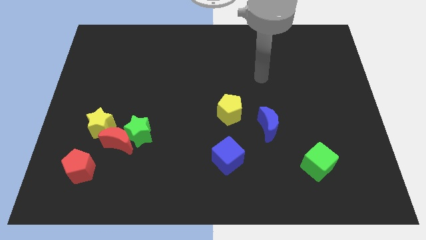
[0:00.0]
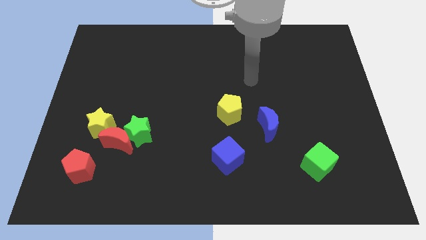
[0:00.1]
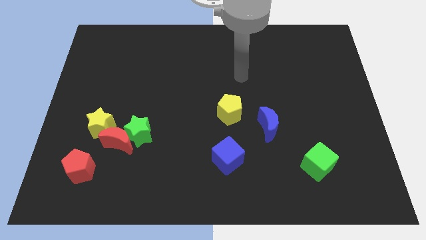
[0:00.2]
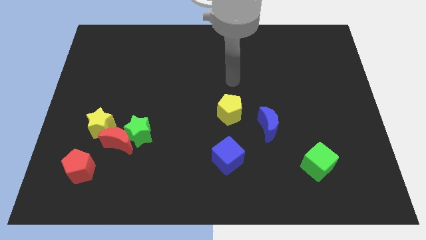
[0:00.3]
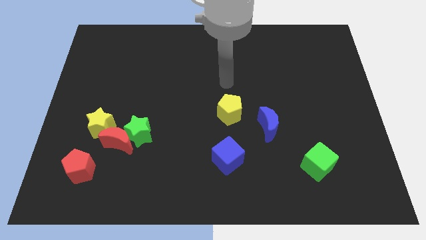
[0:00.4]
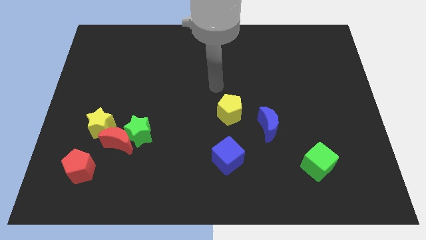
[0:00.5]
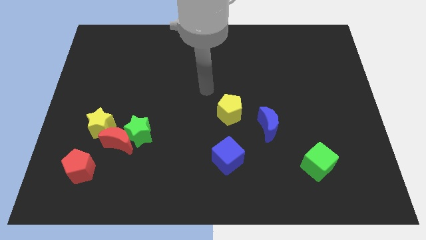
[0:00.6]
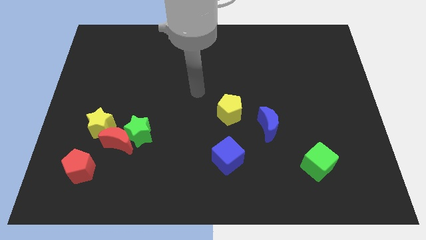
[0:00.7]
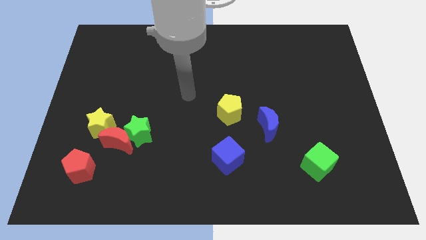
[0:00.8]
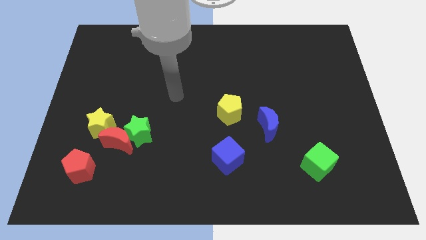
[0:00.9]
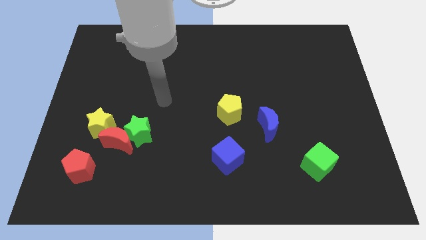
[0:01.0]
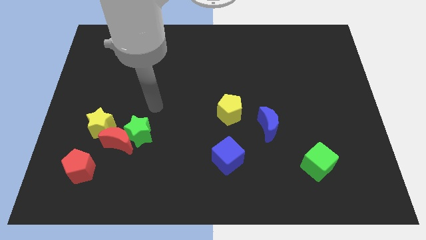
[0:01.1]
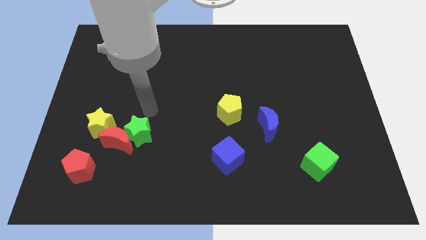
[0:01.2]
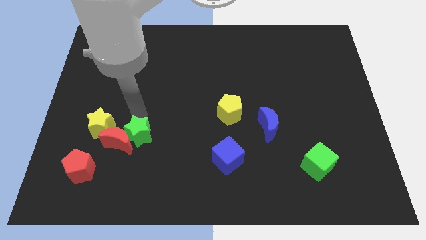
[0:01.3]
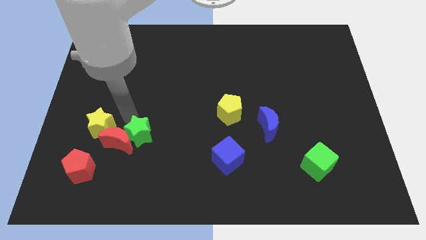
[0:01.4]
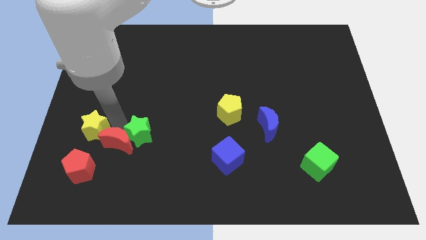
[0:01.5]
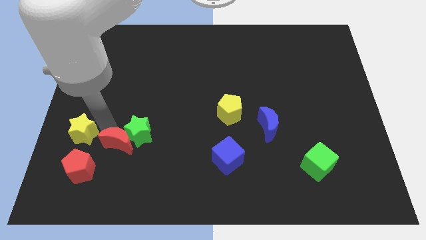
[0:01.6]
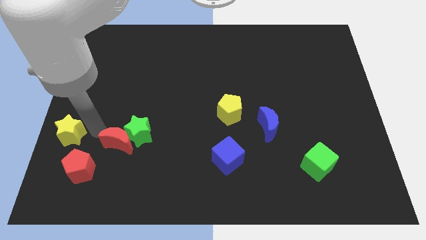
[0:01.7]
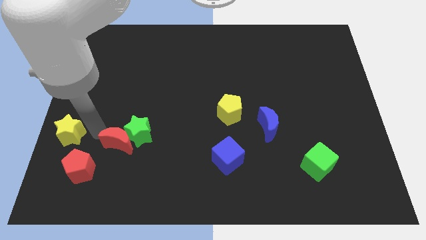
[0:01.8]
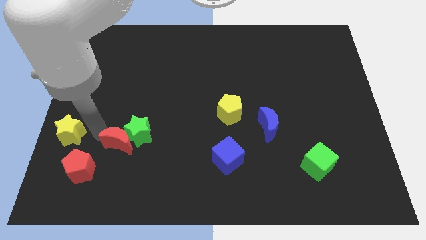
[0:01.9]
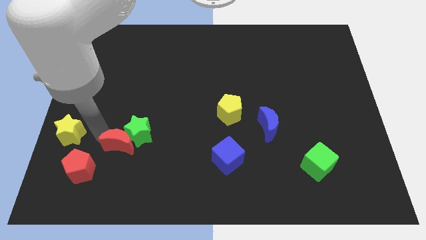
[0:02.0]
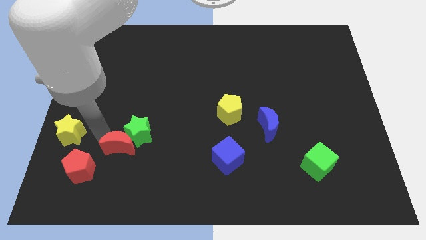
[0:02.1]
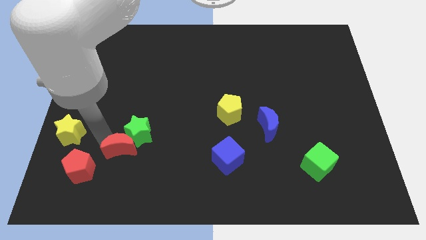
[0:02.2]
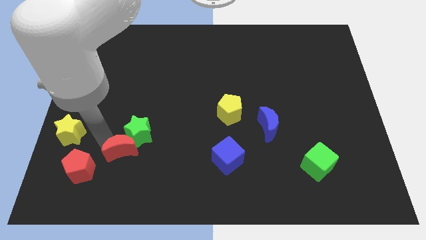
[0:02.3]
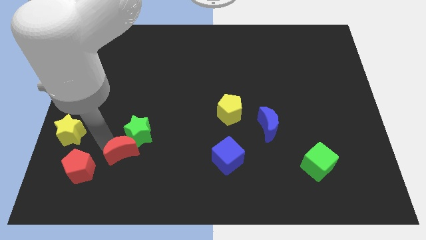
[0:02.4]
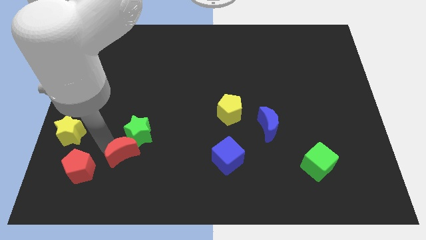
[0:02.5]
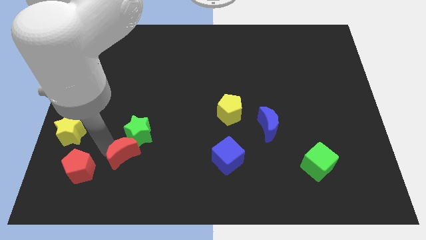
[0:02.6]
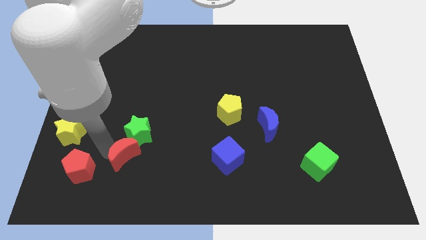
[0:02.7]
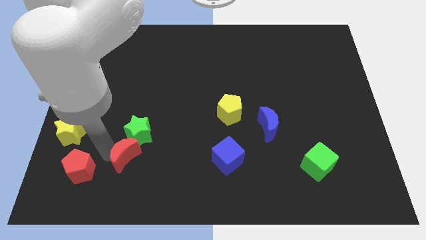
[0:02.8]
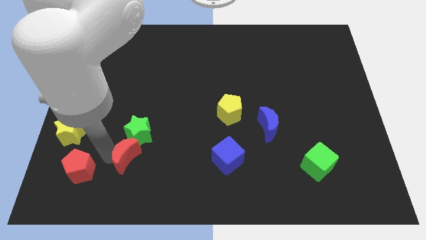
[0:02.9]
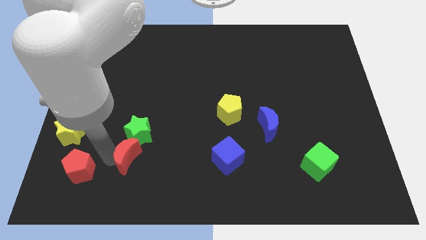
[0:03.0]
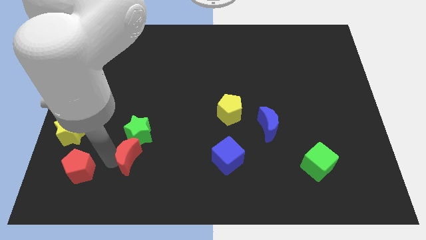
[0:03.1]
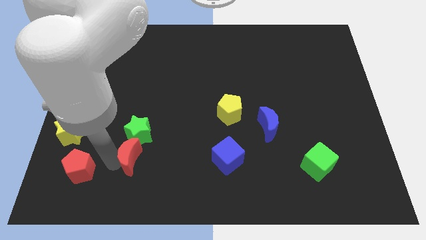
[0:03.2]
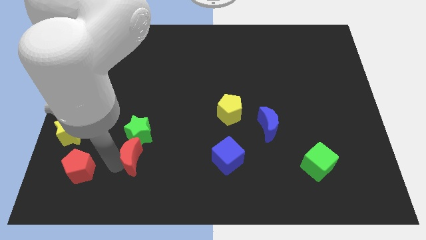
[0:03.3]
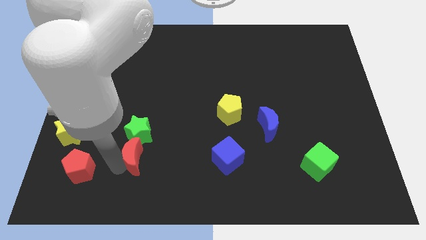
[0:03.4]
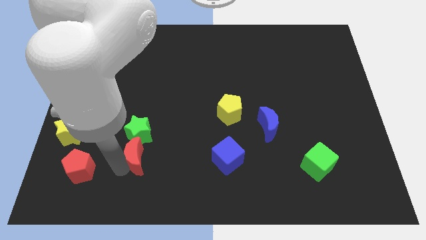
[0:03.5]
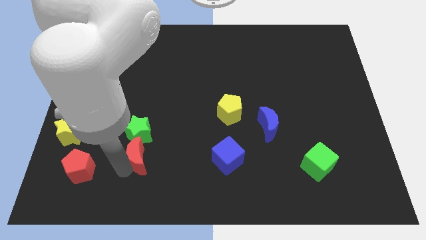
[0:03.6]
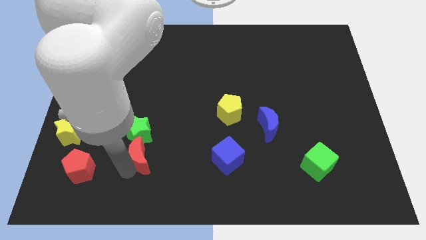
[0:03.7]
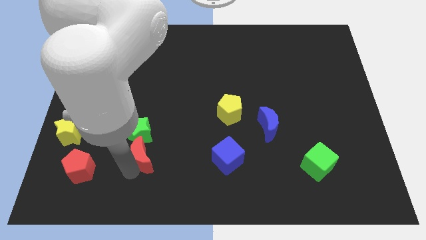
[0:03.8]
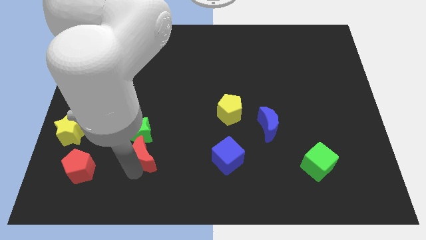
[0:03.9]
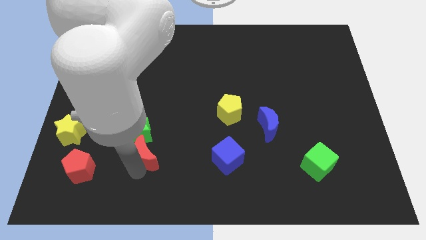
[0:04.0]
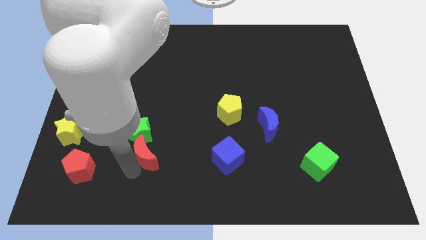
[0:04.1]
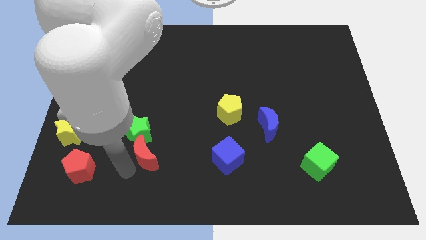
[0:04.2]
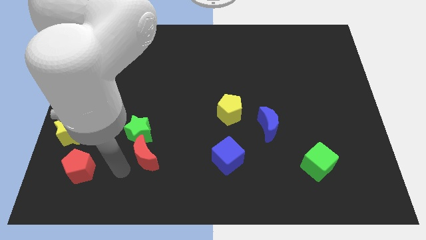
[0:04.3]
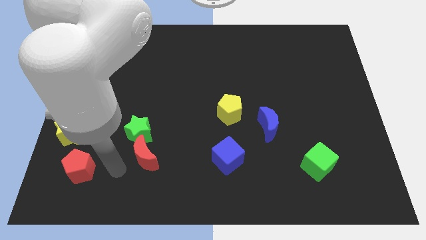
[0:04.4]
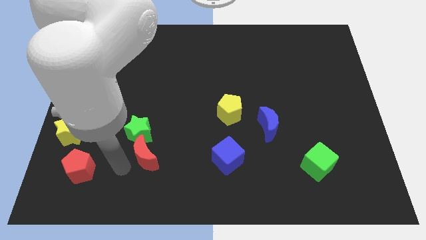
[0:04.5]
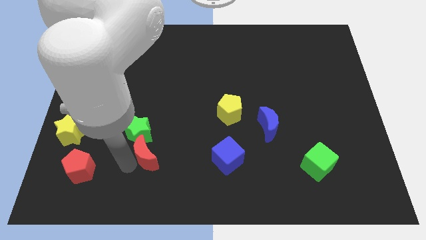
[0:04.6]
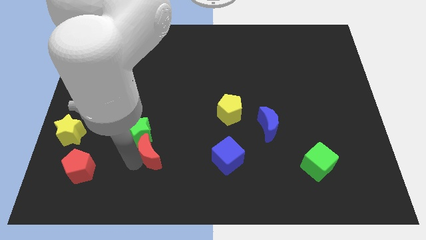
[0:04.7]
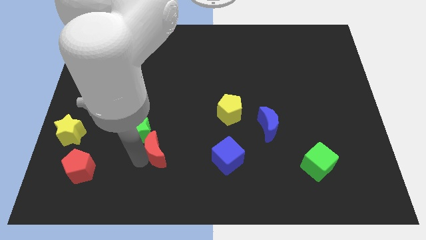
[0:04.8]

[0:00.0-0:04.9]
push the red moon slightly right

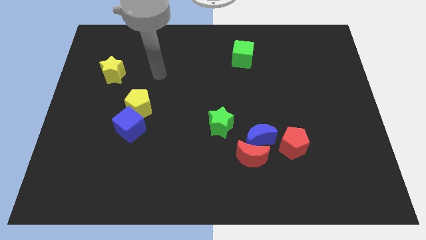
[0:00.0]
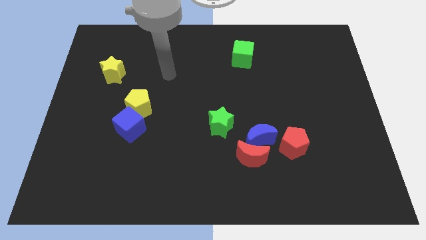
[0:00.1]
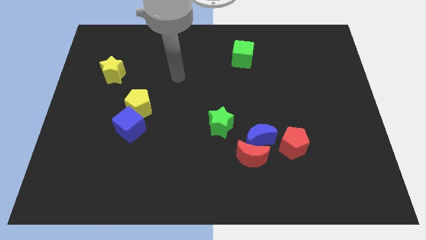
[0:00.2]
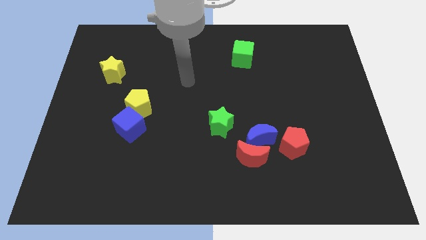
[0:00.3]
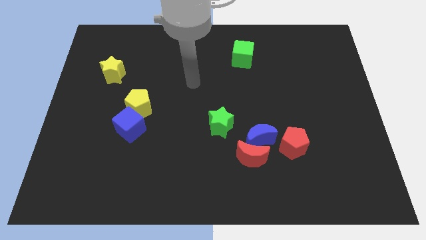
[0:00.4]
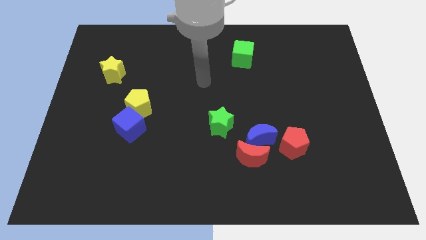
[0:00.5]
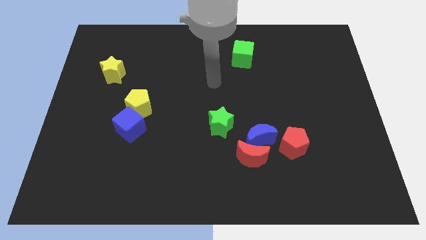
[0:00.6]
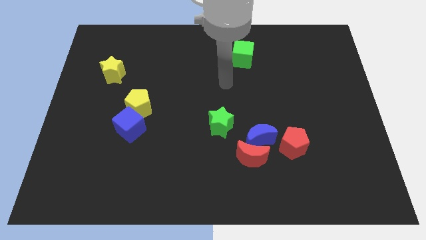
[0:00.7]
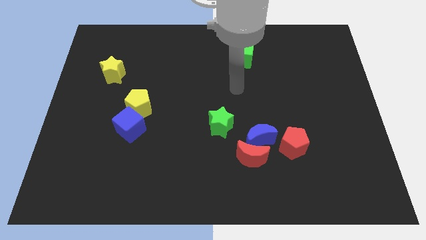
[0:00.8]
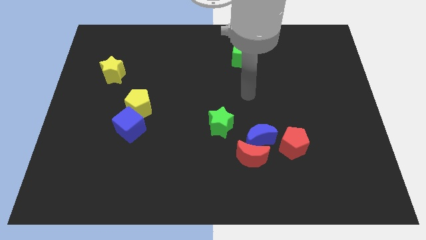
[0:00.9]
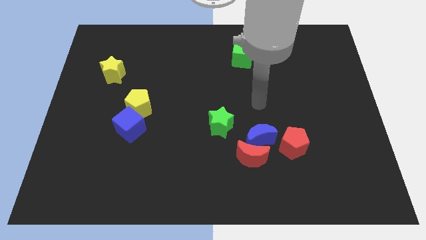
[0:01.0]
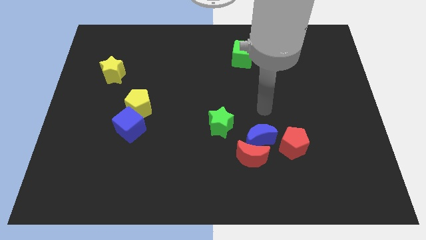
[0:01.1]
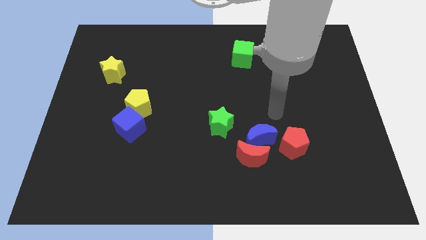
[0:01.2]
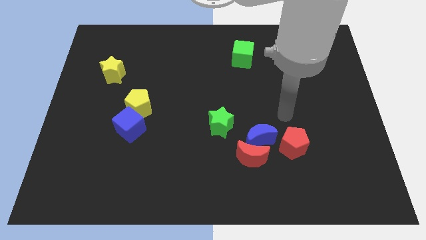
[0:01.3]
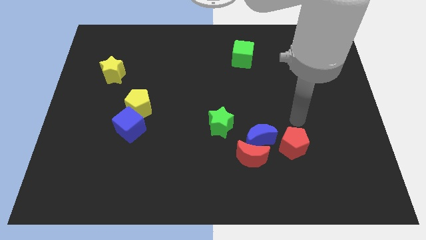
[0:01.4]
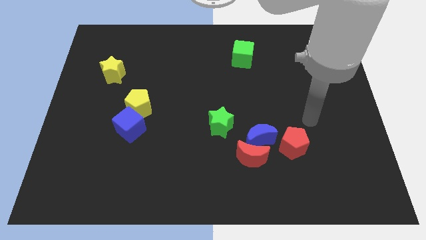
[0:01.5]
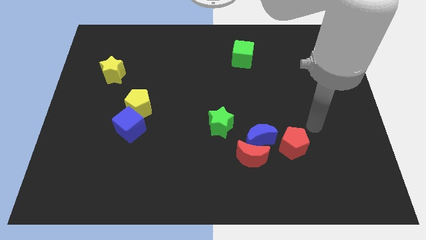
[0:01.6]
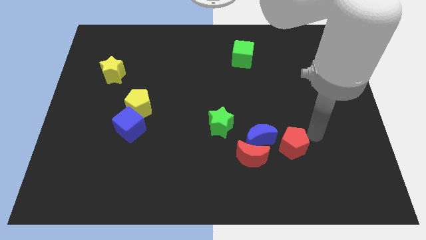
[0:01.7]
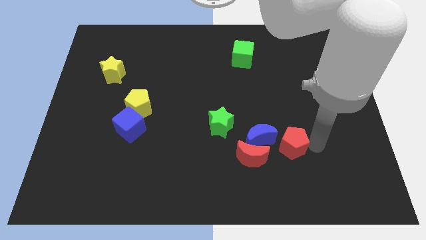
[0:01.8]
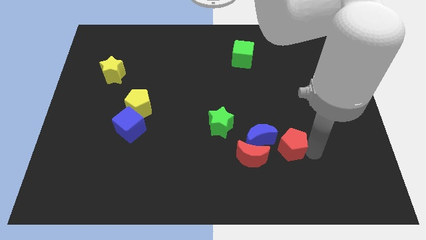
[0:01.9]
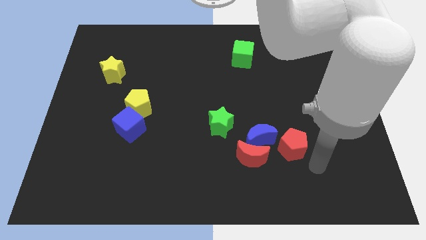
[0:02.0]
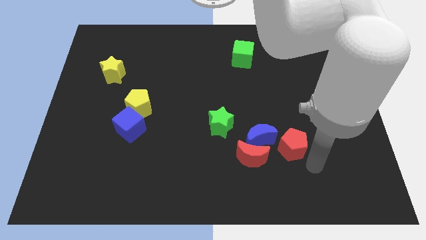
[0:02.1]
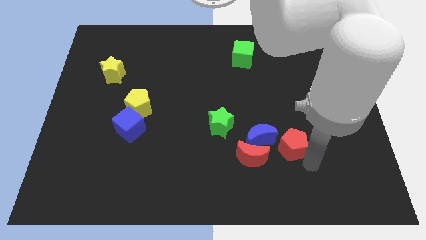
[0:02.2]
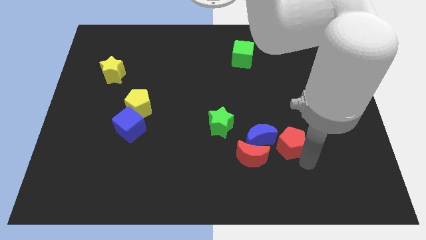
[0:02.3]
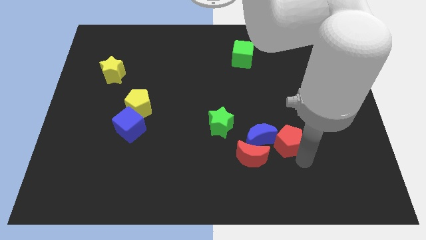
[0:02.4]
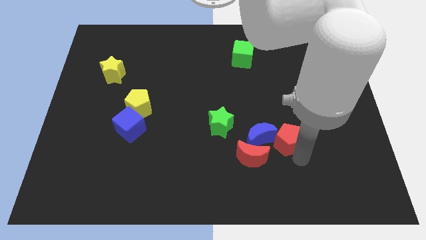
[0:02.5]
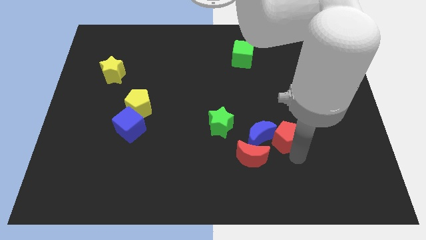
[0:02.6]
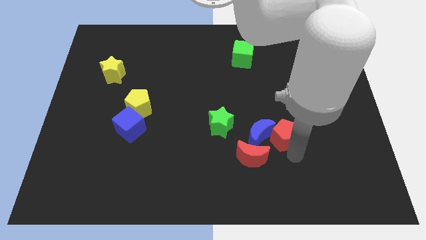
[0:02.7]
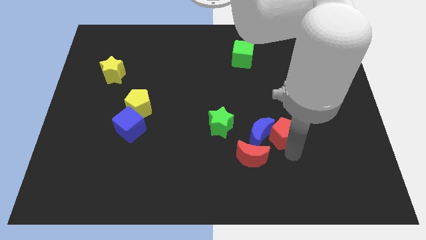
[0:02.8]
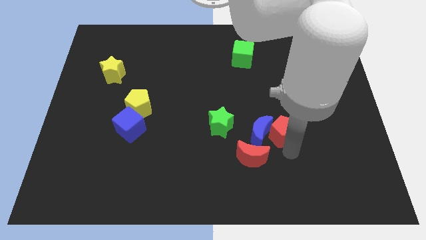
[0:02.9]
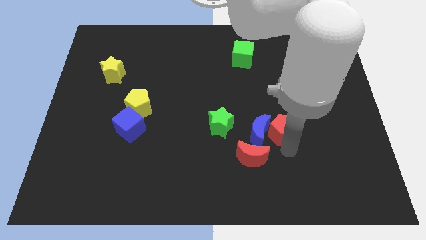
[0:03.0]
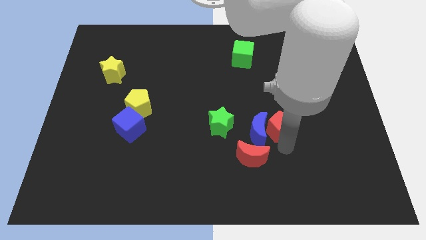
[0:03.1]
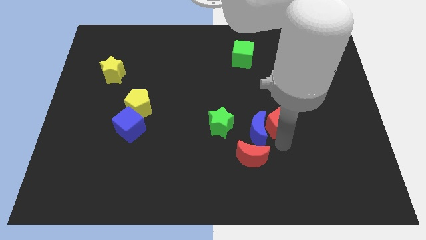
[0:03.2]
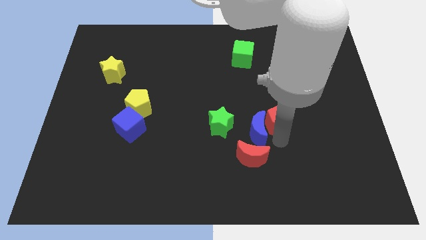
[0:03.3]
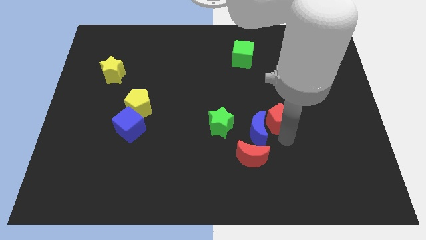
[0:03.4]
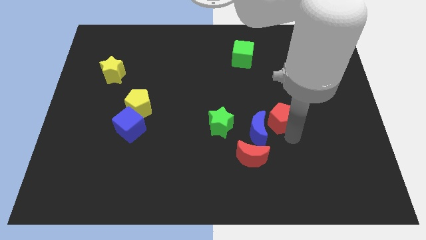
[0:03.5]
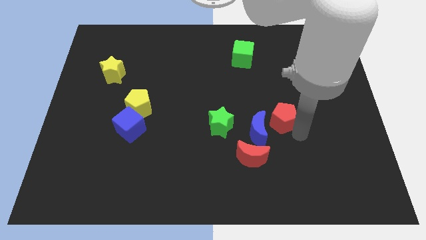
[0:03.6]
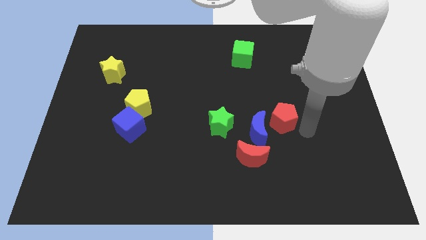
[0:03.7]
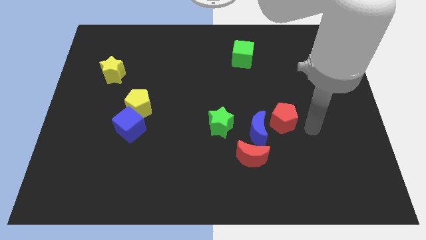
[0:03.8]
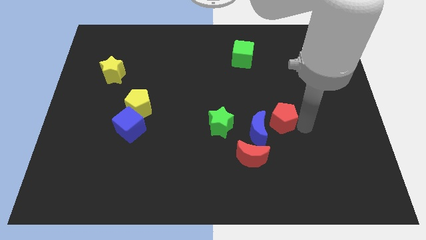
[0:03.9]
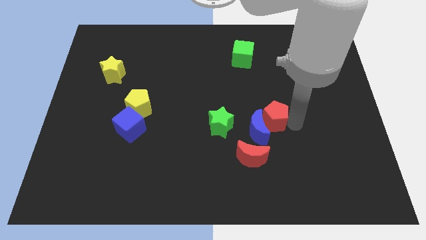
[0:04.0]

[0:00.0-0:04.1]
push the red pentagon a little bit upwards and left
